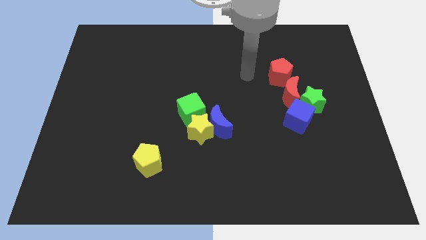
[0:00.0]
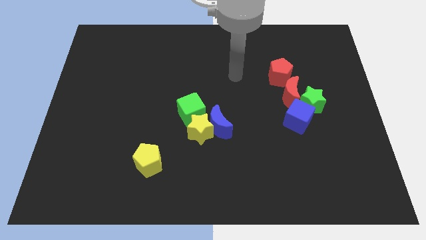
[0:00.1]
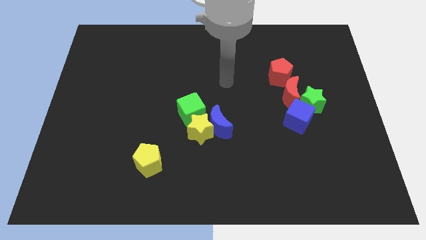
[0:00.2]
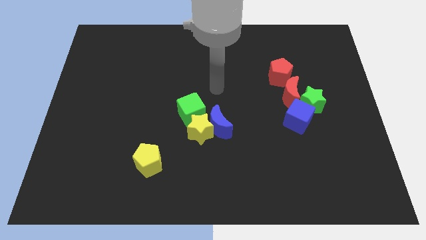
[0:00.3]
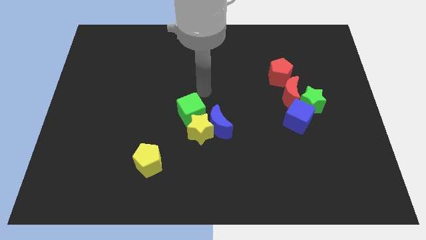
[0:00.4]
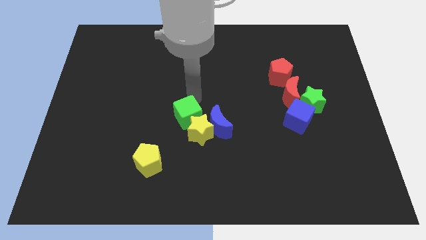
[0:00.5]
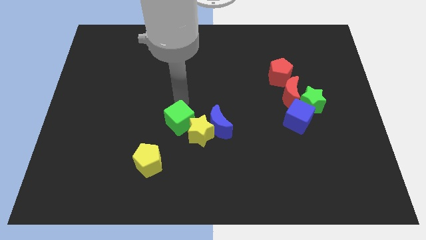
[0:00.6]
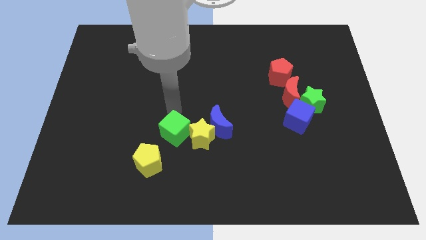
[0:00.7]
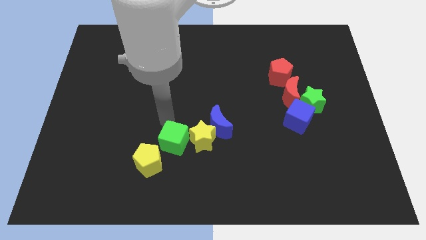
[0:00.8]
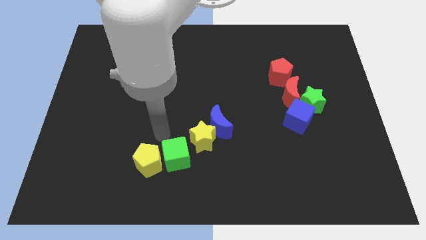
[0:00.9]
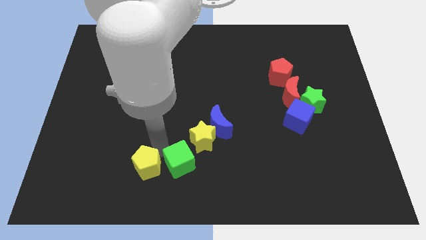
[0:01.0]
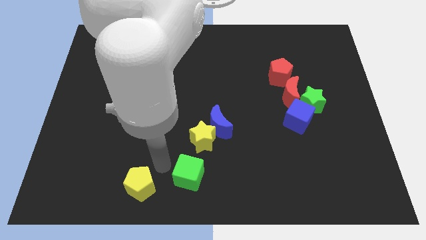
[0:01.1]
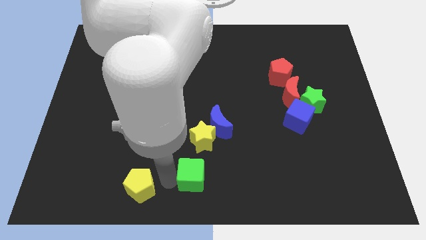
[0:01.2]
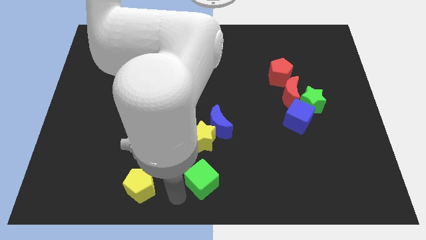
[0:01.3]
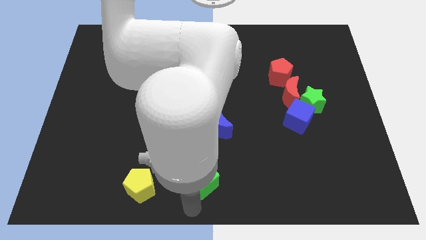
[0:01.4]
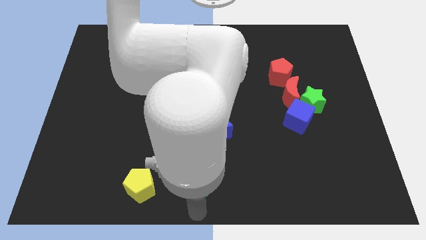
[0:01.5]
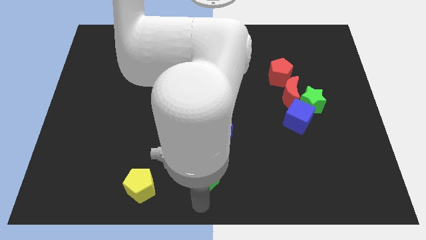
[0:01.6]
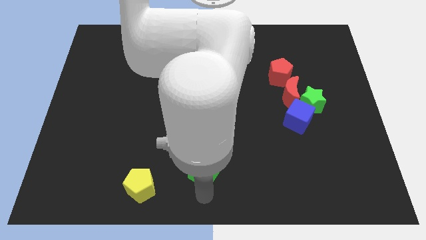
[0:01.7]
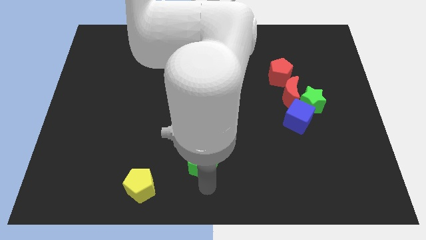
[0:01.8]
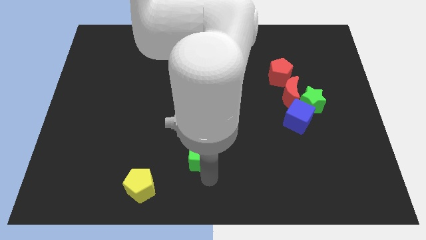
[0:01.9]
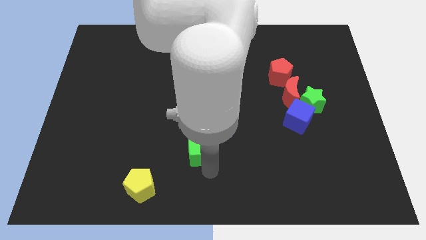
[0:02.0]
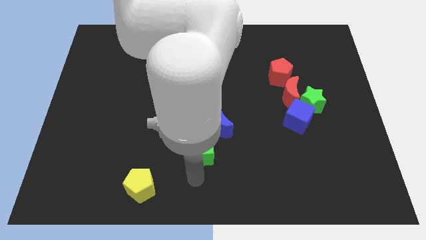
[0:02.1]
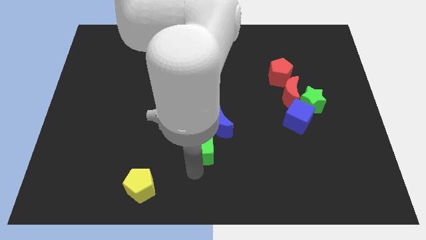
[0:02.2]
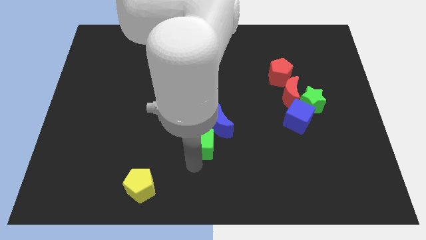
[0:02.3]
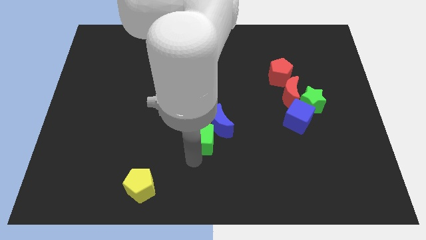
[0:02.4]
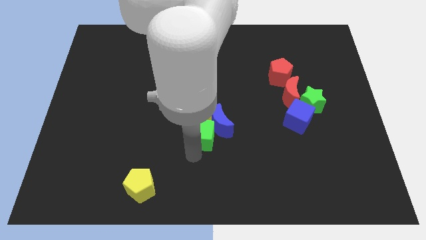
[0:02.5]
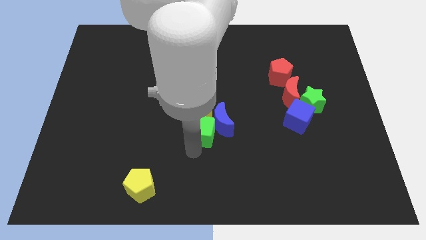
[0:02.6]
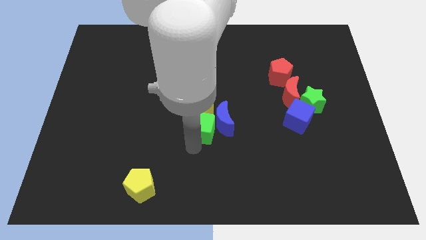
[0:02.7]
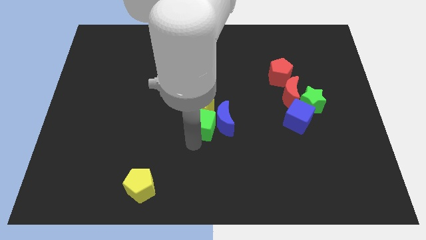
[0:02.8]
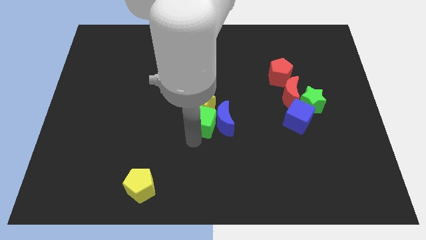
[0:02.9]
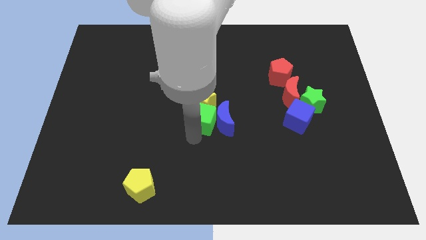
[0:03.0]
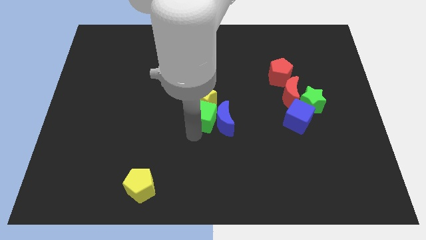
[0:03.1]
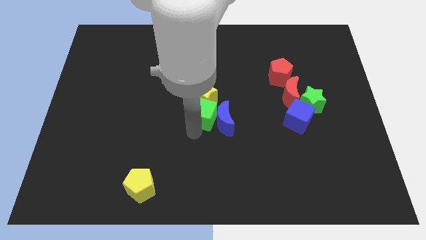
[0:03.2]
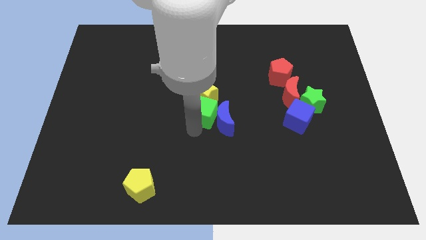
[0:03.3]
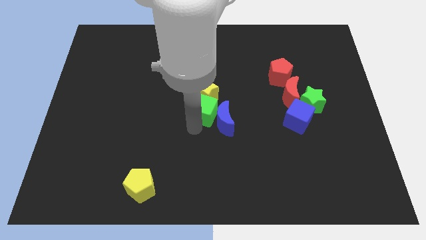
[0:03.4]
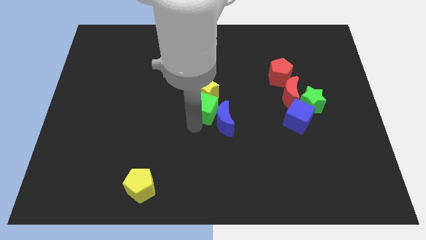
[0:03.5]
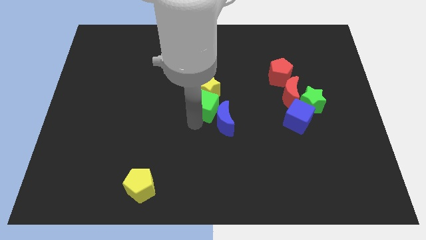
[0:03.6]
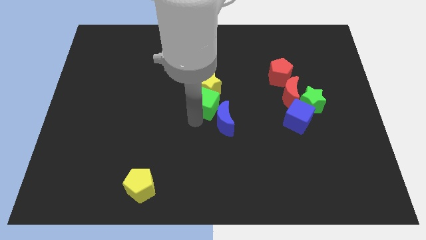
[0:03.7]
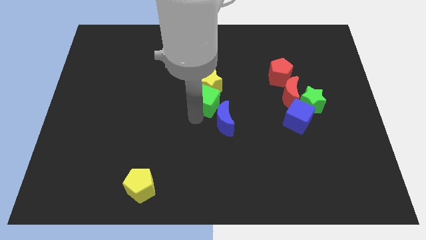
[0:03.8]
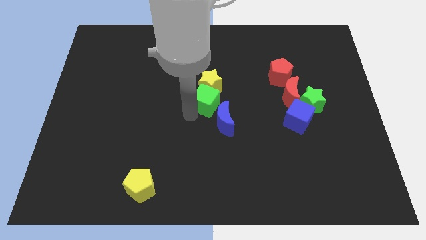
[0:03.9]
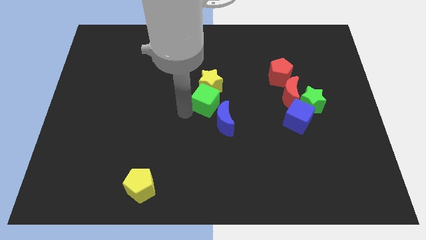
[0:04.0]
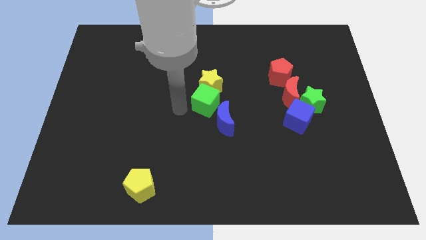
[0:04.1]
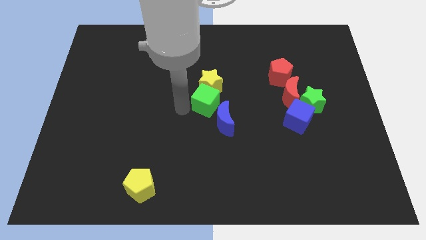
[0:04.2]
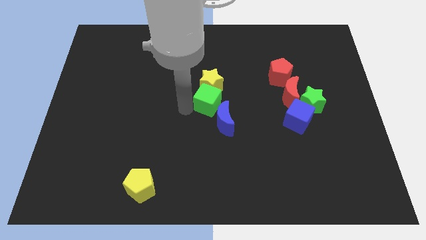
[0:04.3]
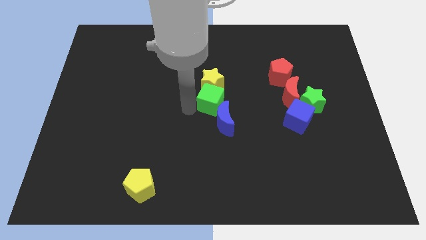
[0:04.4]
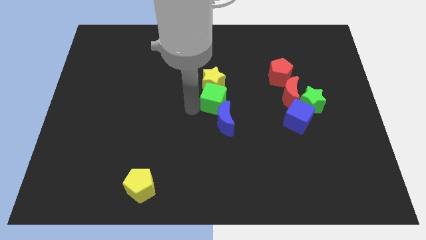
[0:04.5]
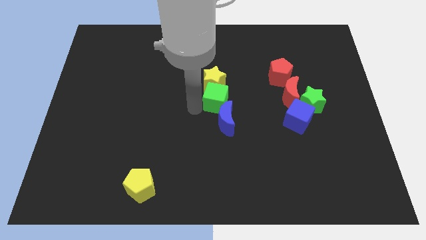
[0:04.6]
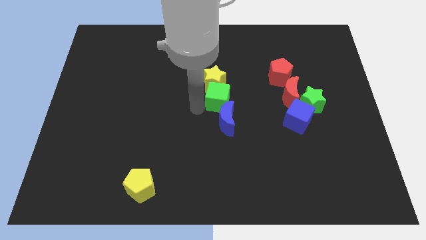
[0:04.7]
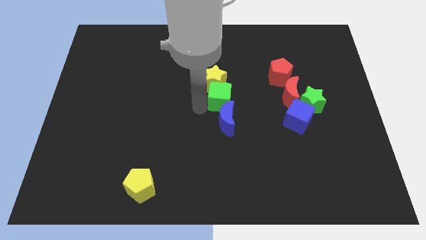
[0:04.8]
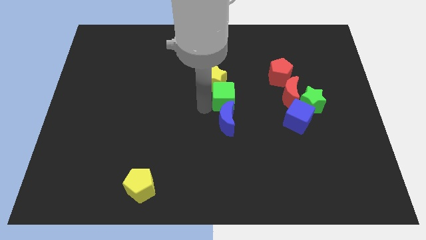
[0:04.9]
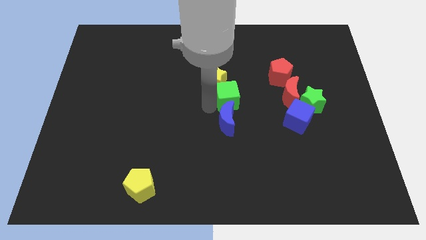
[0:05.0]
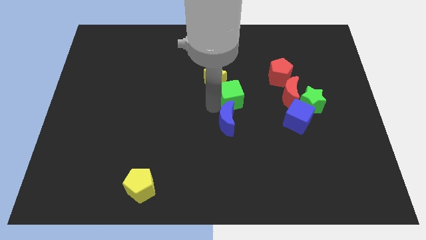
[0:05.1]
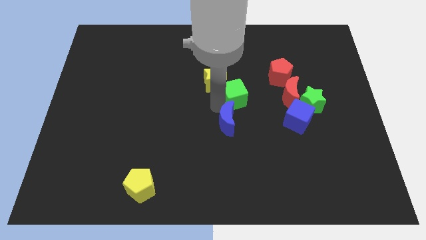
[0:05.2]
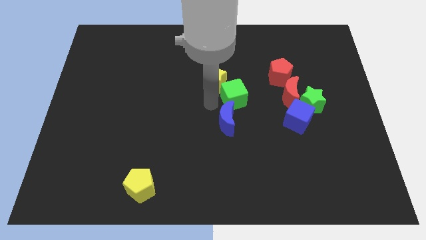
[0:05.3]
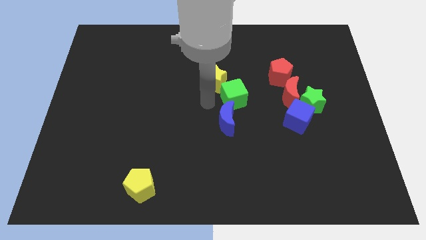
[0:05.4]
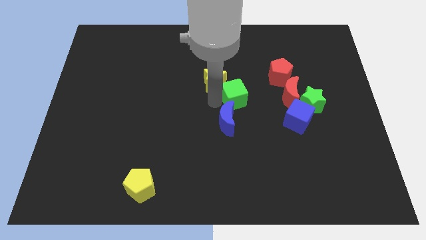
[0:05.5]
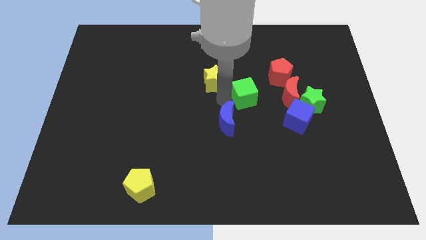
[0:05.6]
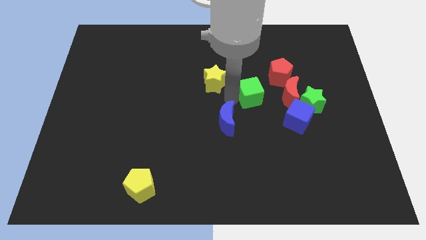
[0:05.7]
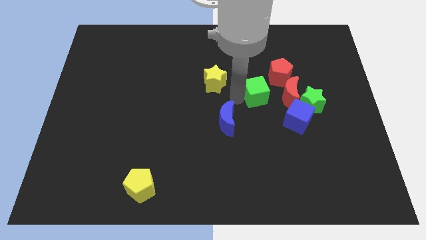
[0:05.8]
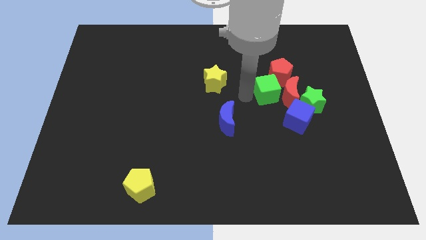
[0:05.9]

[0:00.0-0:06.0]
slide the green cube towards the red moon

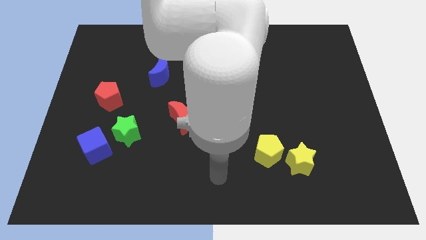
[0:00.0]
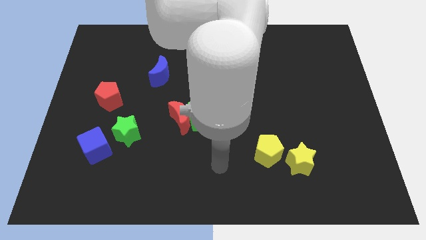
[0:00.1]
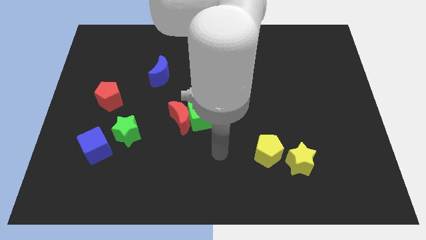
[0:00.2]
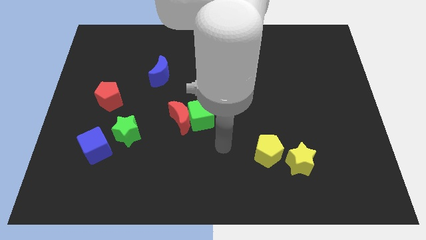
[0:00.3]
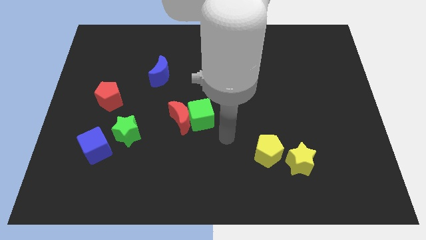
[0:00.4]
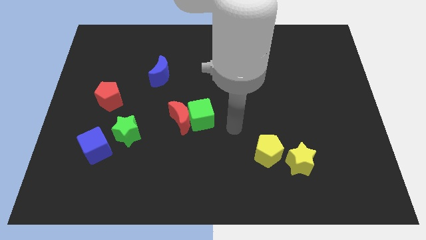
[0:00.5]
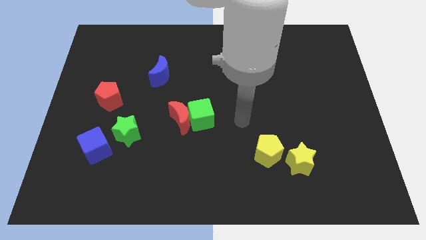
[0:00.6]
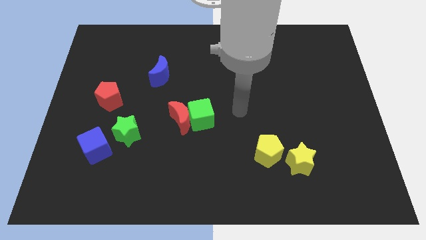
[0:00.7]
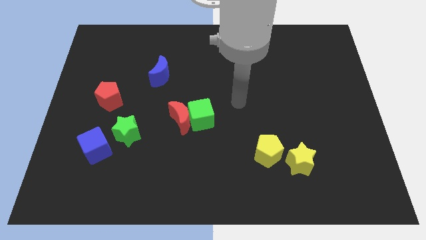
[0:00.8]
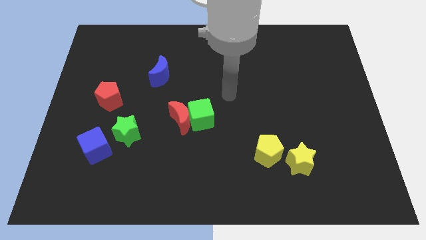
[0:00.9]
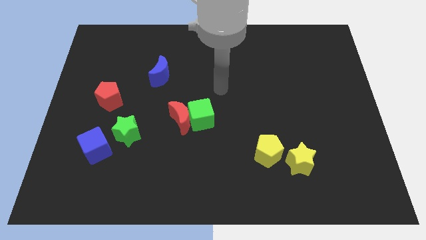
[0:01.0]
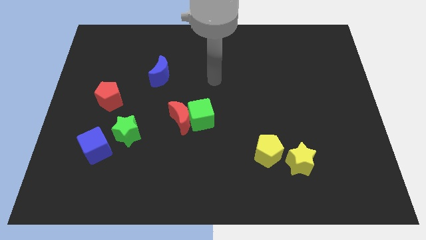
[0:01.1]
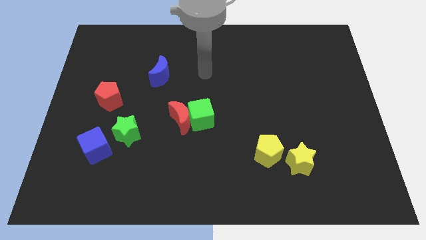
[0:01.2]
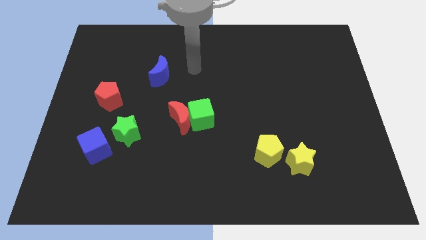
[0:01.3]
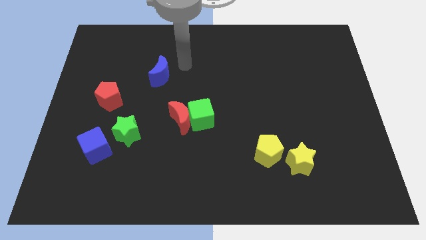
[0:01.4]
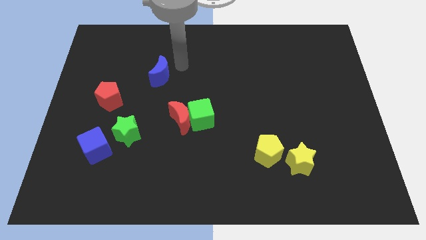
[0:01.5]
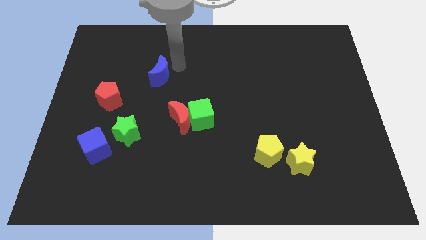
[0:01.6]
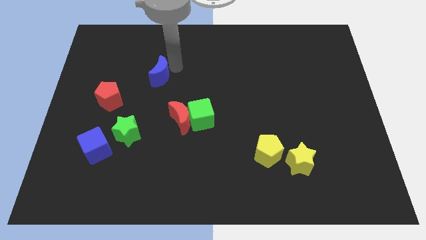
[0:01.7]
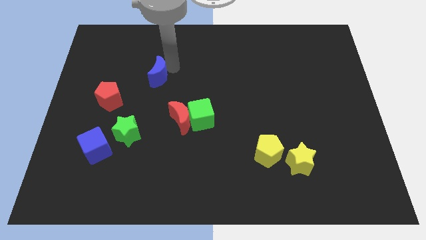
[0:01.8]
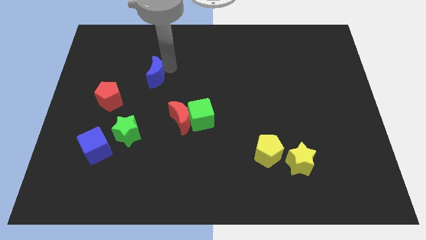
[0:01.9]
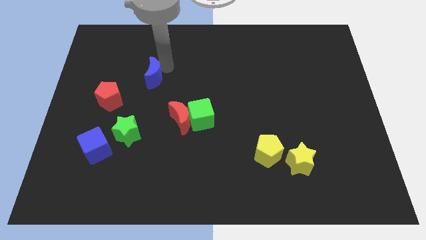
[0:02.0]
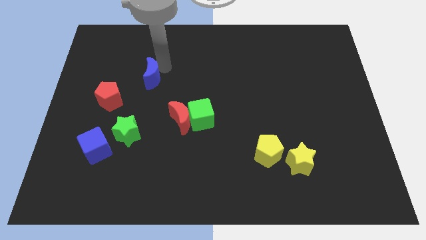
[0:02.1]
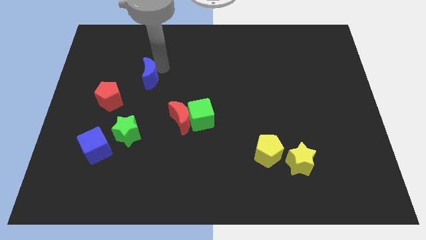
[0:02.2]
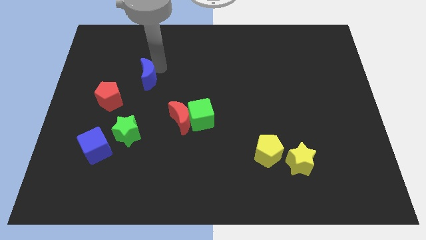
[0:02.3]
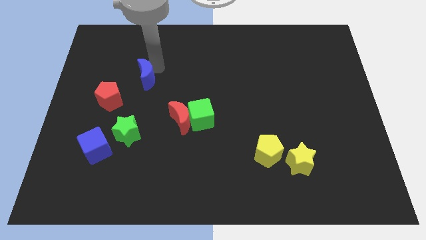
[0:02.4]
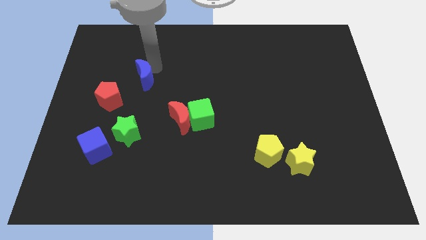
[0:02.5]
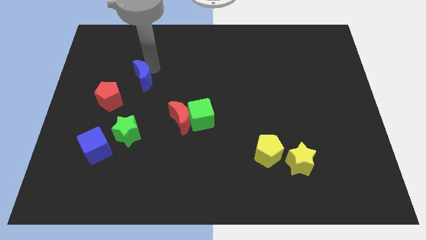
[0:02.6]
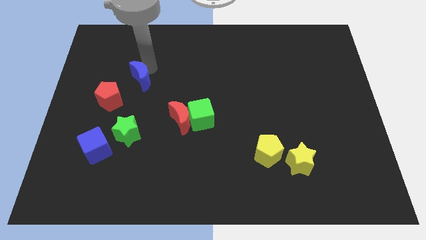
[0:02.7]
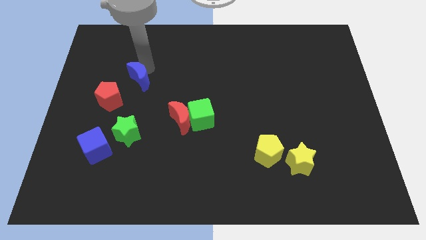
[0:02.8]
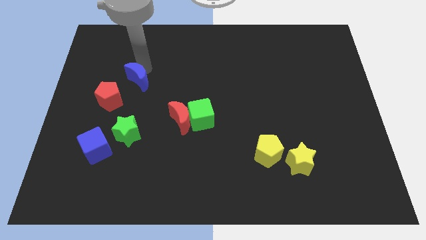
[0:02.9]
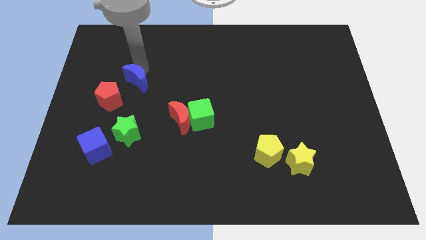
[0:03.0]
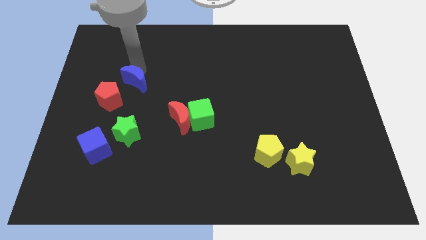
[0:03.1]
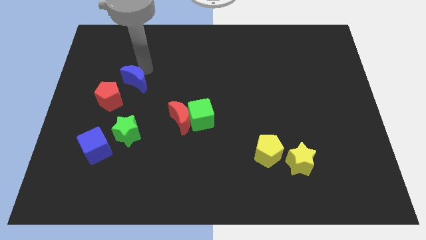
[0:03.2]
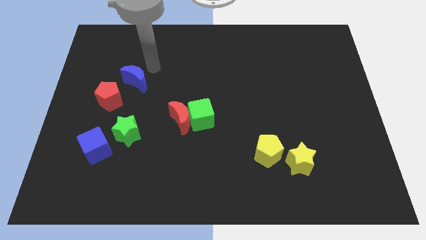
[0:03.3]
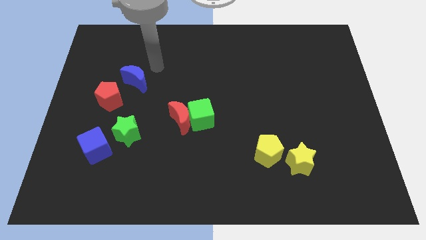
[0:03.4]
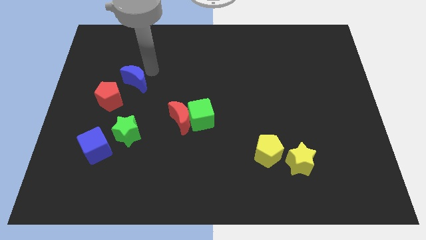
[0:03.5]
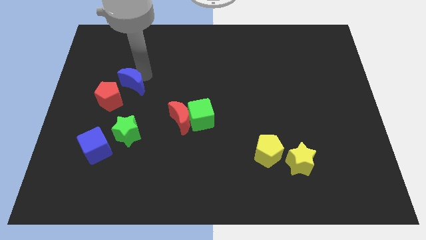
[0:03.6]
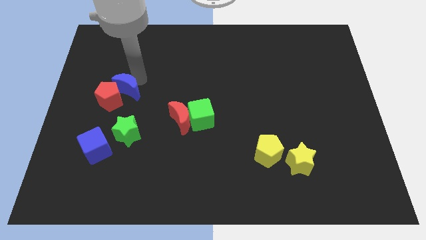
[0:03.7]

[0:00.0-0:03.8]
move the blue moon to the red pentagon
